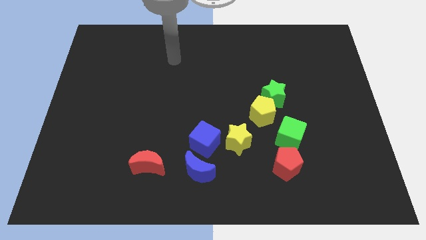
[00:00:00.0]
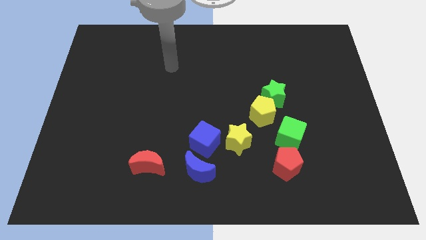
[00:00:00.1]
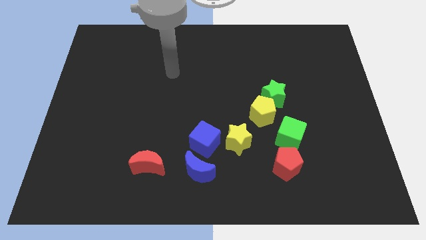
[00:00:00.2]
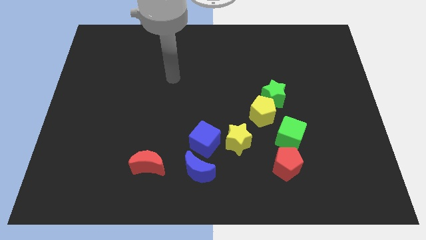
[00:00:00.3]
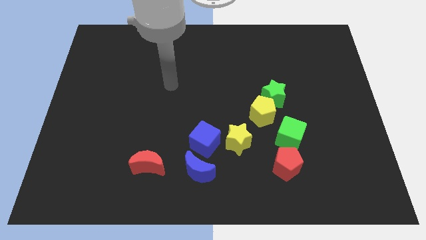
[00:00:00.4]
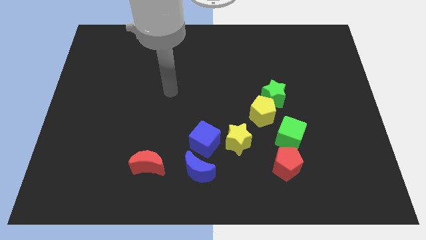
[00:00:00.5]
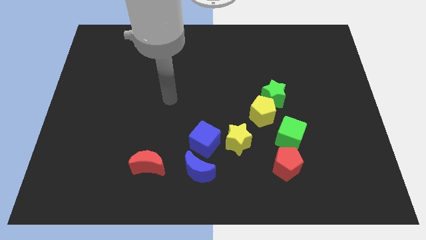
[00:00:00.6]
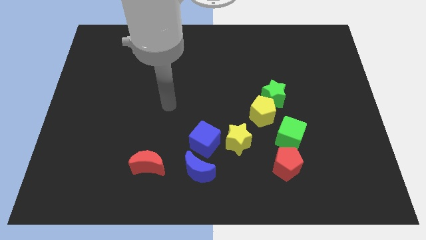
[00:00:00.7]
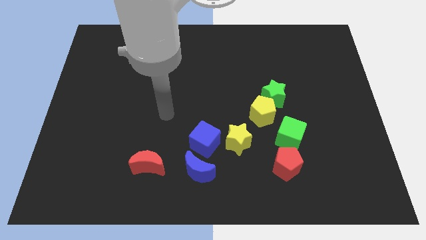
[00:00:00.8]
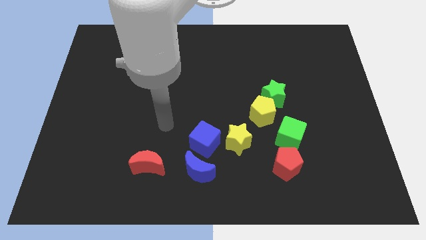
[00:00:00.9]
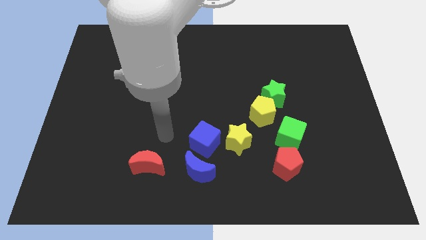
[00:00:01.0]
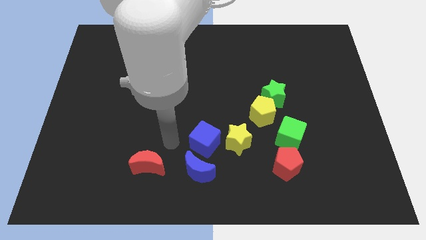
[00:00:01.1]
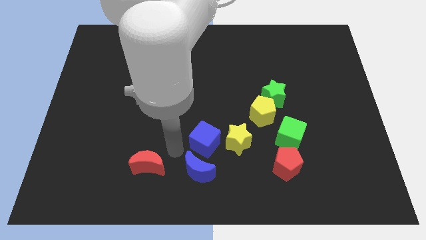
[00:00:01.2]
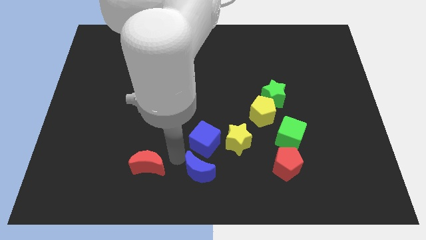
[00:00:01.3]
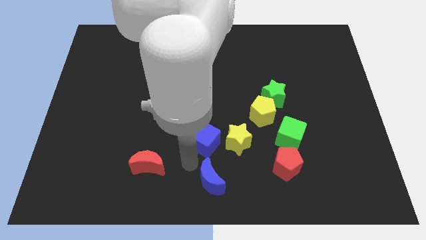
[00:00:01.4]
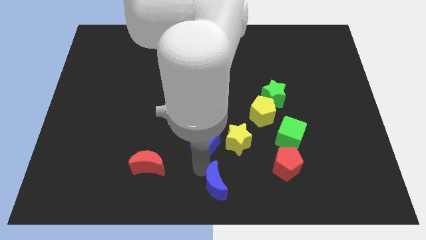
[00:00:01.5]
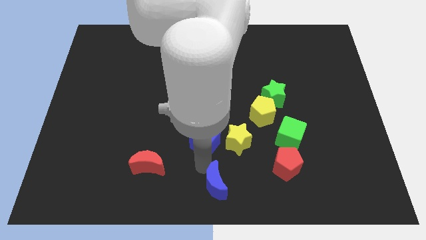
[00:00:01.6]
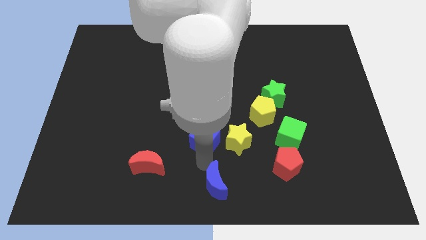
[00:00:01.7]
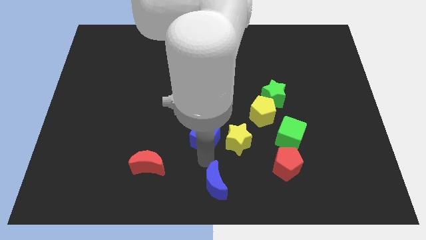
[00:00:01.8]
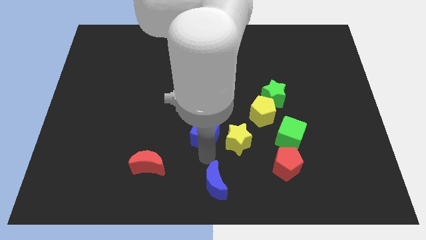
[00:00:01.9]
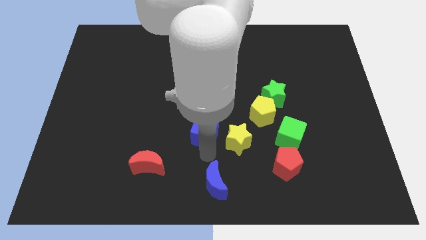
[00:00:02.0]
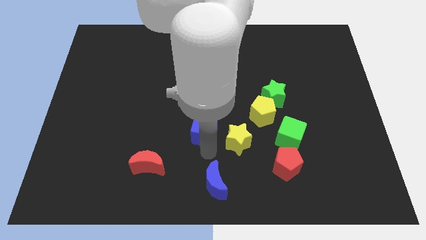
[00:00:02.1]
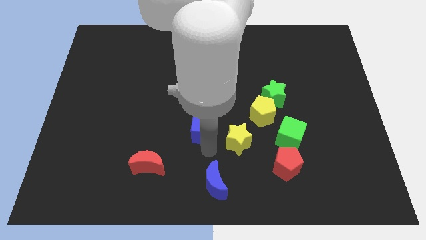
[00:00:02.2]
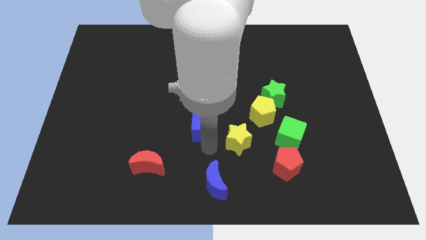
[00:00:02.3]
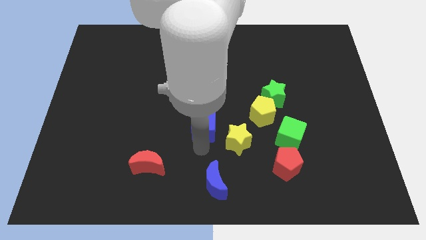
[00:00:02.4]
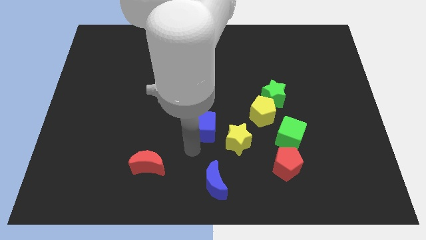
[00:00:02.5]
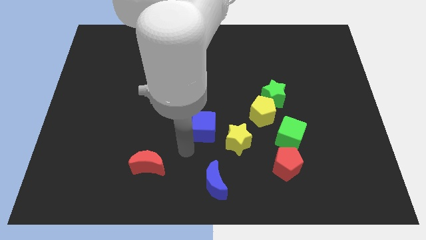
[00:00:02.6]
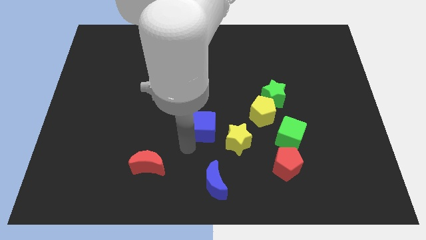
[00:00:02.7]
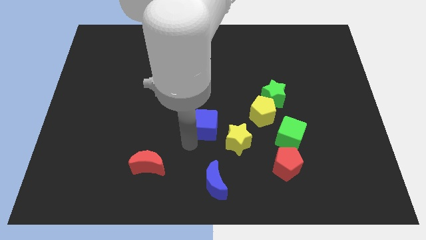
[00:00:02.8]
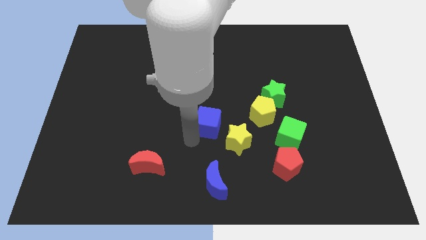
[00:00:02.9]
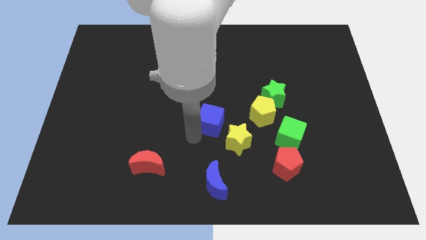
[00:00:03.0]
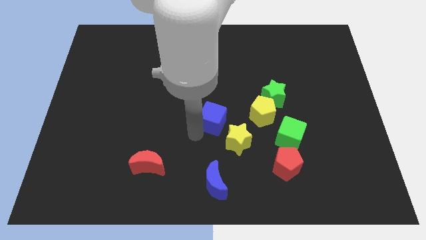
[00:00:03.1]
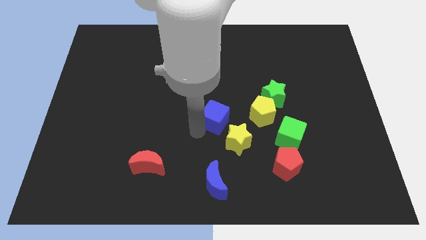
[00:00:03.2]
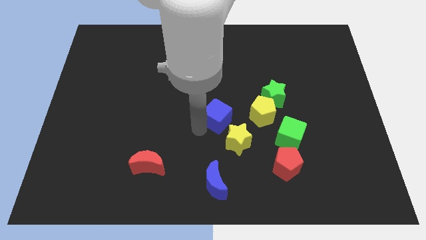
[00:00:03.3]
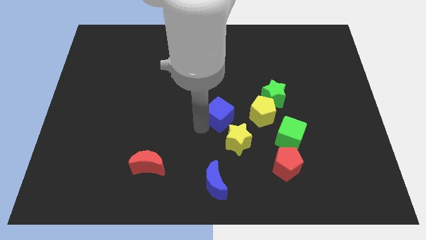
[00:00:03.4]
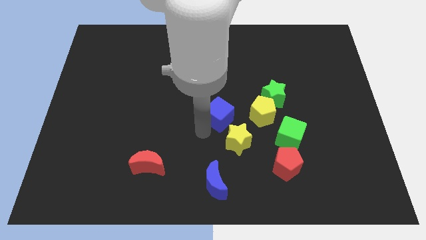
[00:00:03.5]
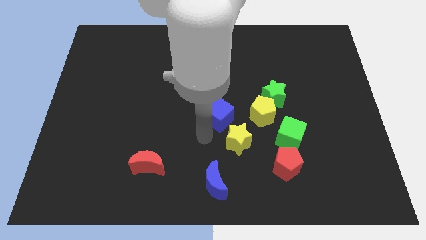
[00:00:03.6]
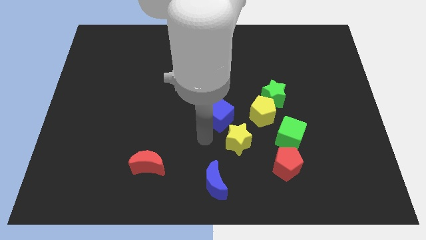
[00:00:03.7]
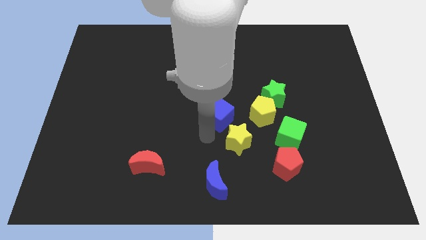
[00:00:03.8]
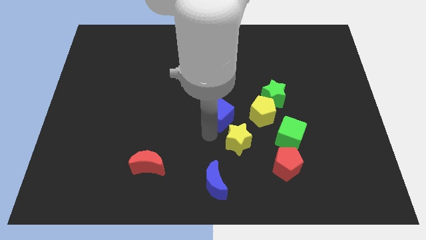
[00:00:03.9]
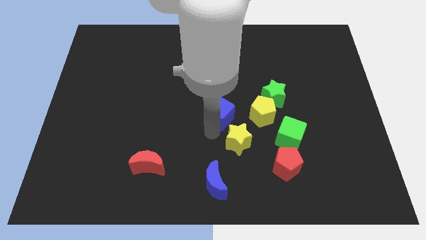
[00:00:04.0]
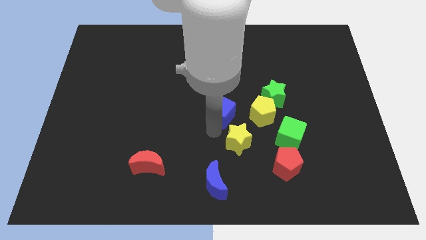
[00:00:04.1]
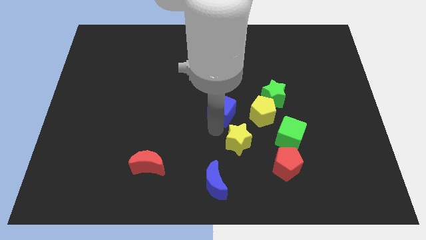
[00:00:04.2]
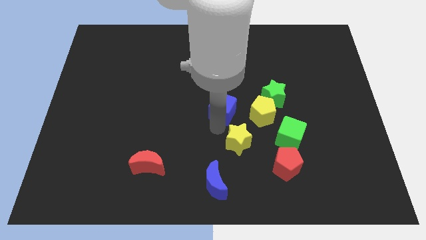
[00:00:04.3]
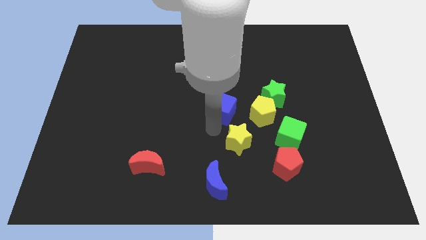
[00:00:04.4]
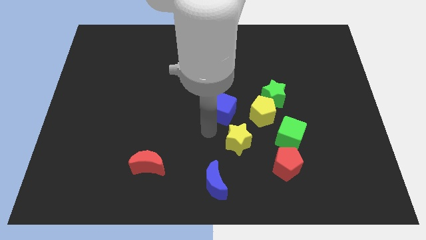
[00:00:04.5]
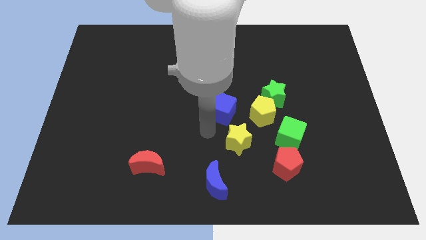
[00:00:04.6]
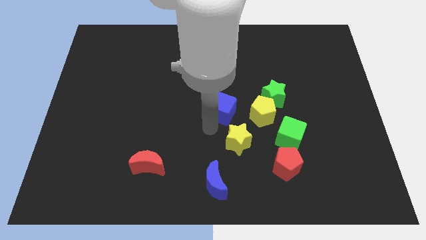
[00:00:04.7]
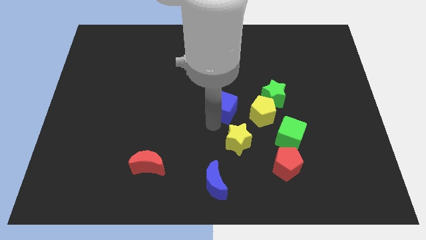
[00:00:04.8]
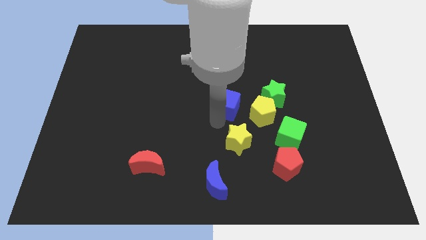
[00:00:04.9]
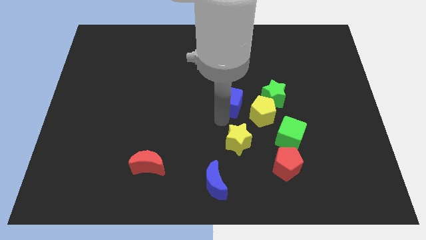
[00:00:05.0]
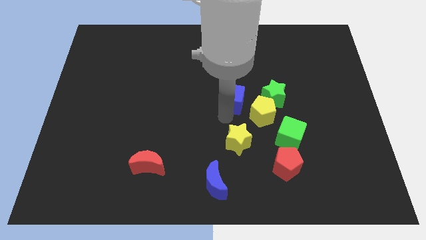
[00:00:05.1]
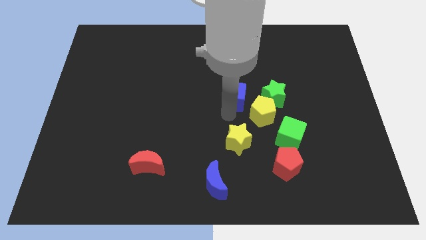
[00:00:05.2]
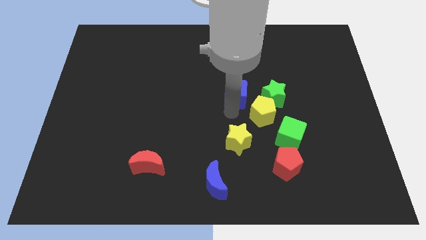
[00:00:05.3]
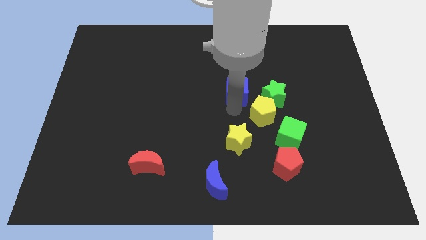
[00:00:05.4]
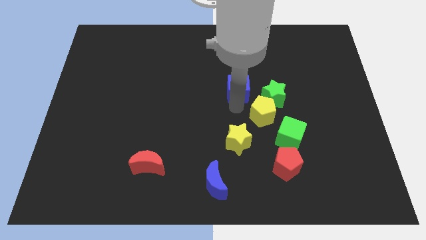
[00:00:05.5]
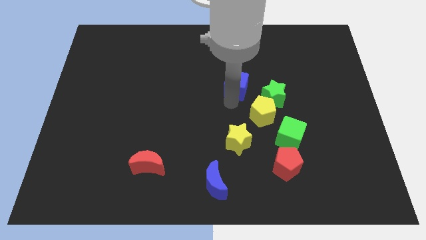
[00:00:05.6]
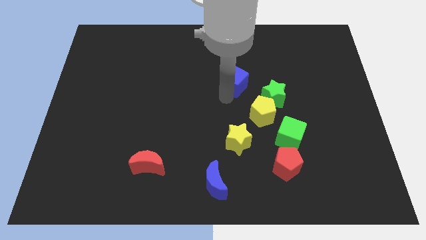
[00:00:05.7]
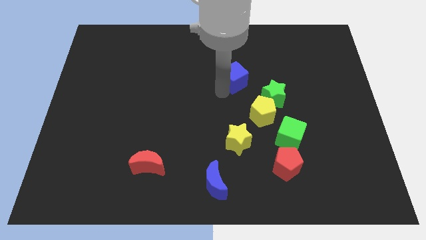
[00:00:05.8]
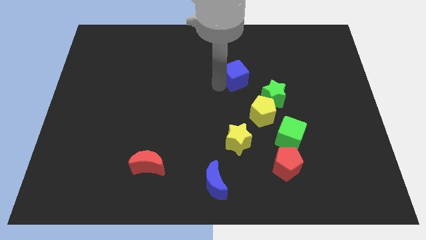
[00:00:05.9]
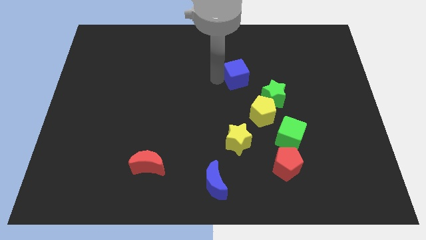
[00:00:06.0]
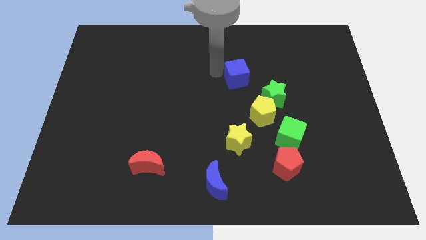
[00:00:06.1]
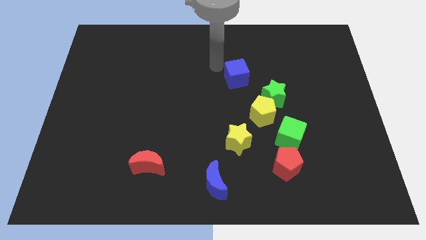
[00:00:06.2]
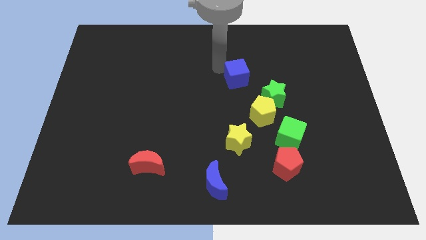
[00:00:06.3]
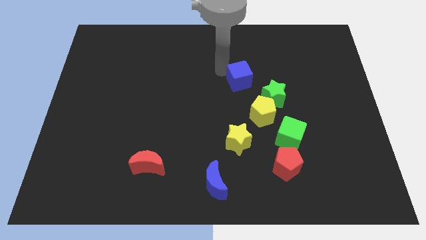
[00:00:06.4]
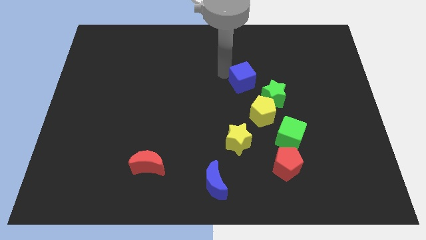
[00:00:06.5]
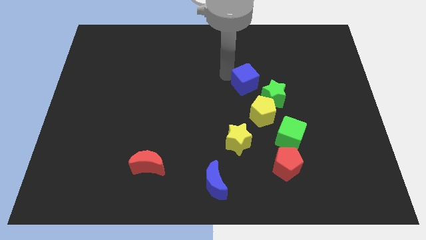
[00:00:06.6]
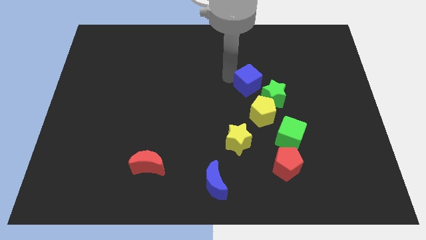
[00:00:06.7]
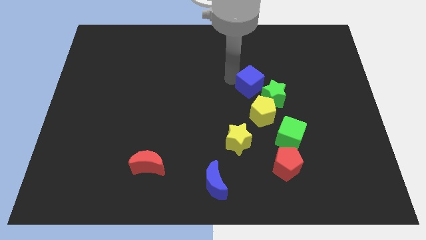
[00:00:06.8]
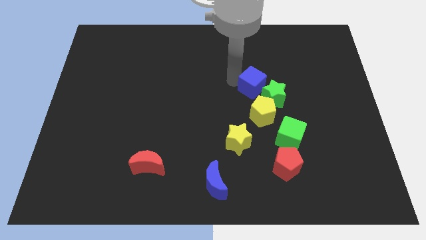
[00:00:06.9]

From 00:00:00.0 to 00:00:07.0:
move the blue cube to the green star
